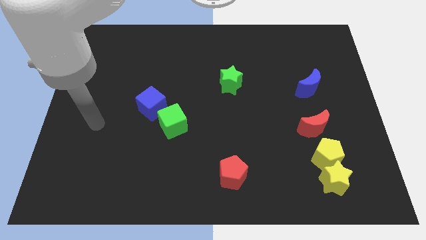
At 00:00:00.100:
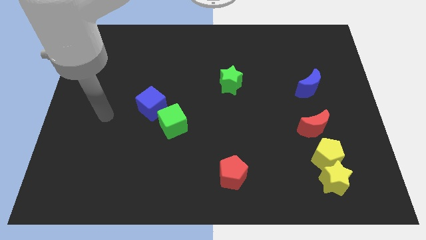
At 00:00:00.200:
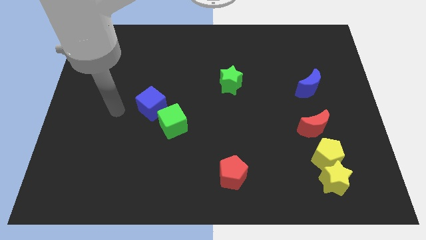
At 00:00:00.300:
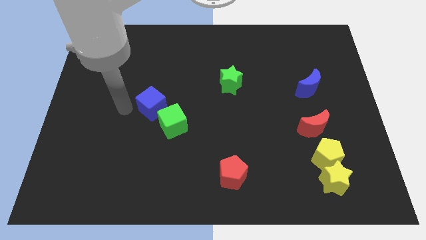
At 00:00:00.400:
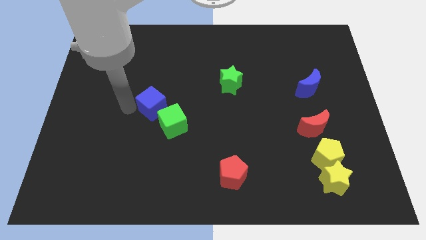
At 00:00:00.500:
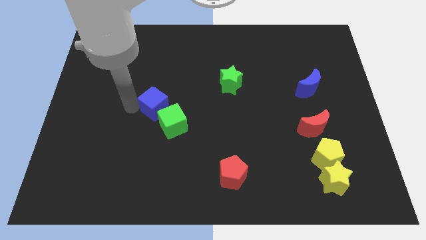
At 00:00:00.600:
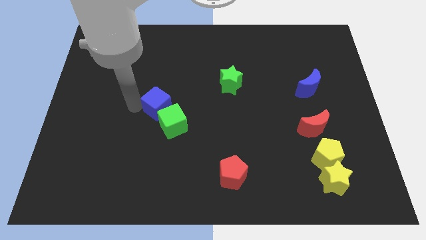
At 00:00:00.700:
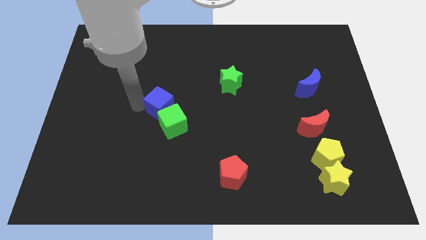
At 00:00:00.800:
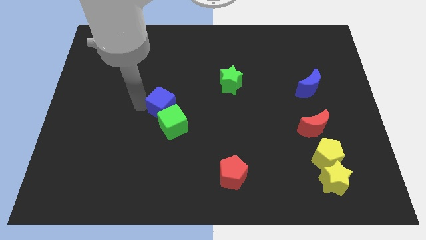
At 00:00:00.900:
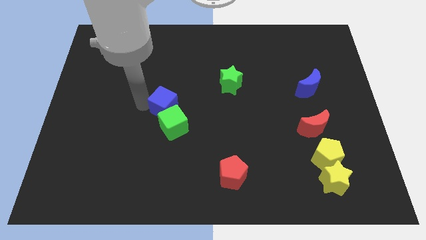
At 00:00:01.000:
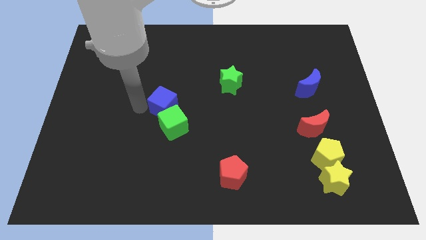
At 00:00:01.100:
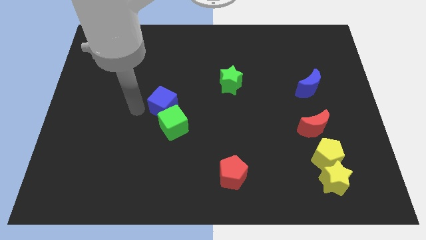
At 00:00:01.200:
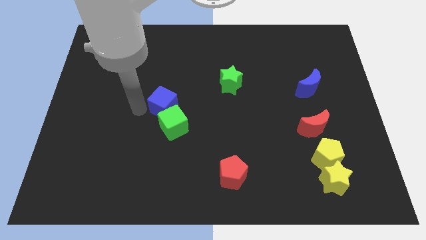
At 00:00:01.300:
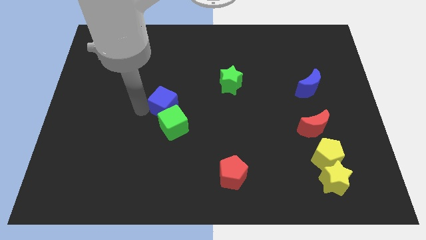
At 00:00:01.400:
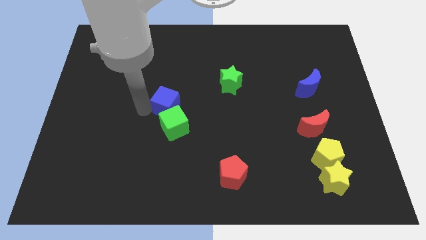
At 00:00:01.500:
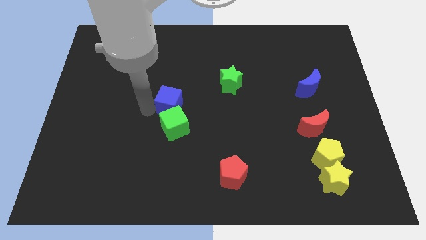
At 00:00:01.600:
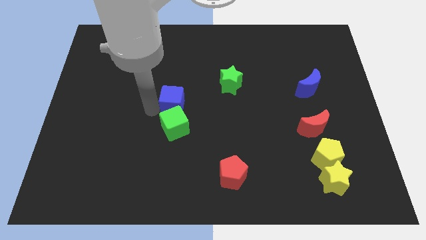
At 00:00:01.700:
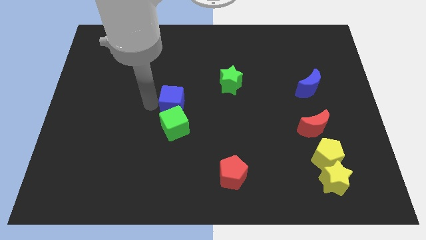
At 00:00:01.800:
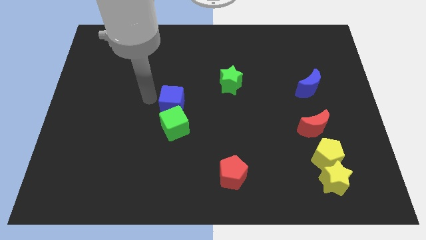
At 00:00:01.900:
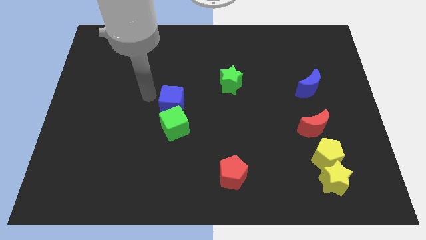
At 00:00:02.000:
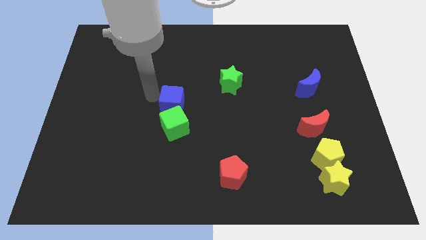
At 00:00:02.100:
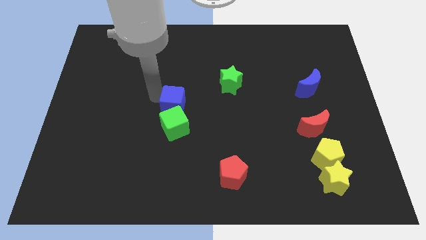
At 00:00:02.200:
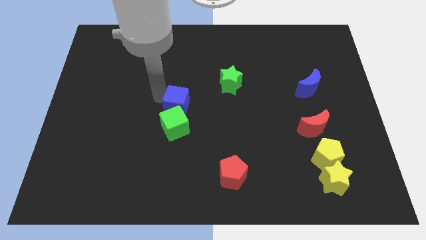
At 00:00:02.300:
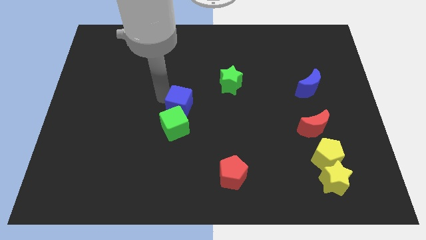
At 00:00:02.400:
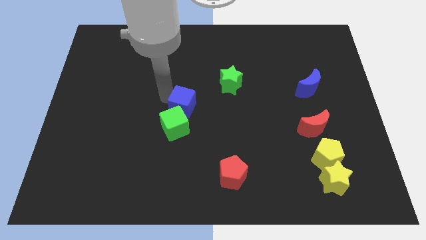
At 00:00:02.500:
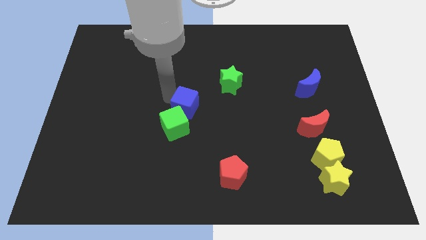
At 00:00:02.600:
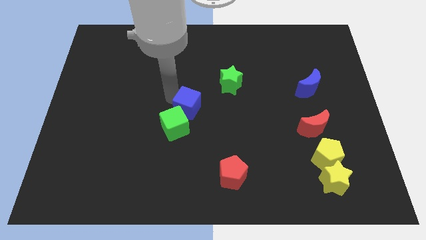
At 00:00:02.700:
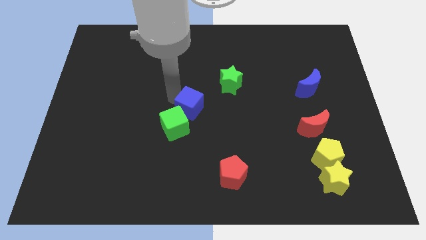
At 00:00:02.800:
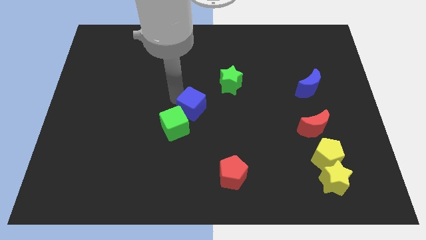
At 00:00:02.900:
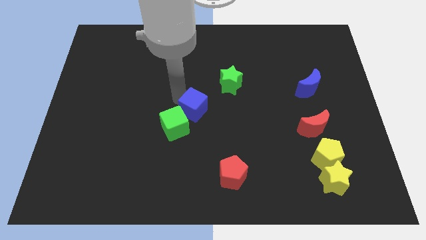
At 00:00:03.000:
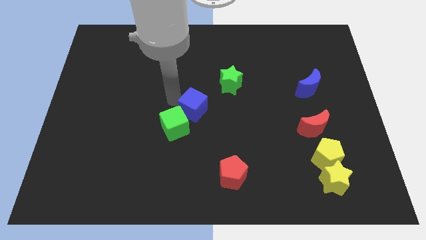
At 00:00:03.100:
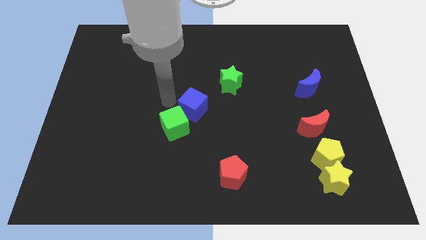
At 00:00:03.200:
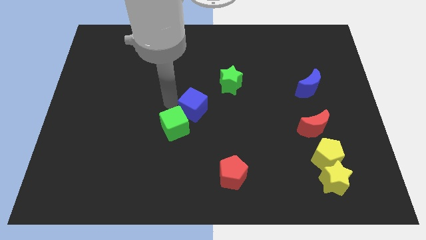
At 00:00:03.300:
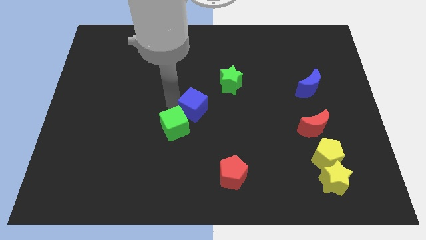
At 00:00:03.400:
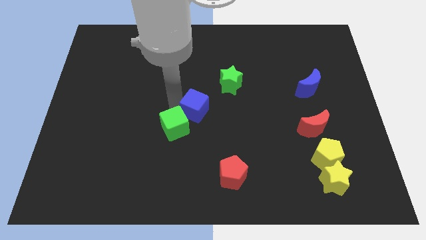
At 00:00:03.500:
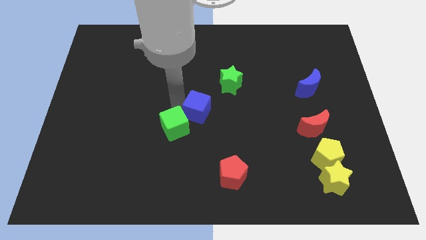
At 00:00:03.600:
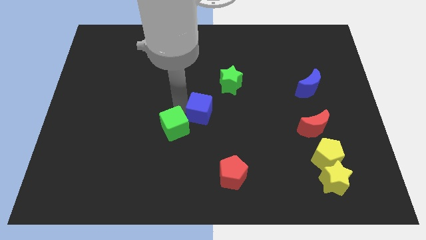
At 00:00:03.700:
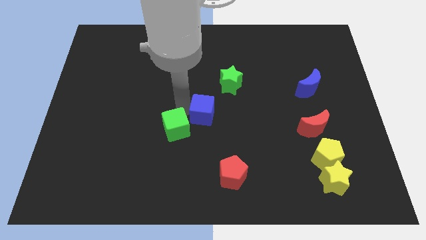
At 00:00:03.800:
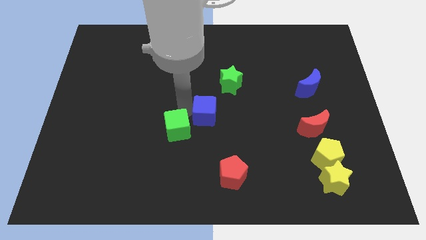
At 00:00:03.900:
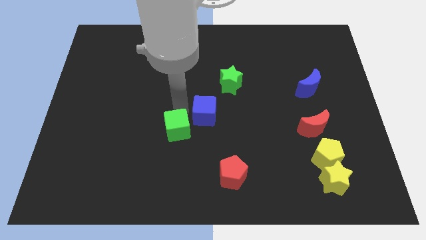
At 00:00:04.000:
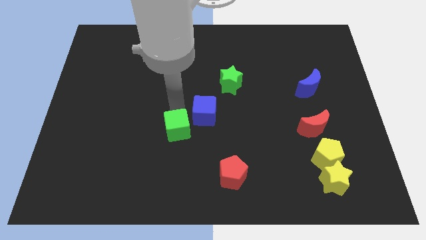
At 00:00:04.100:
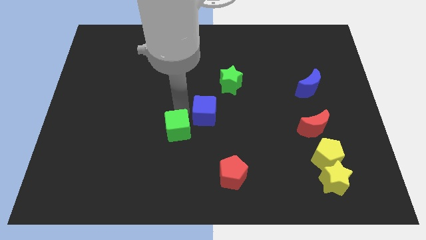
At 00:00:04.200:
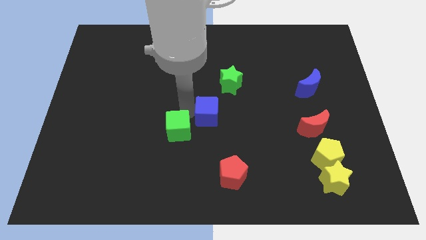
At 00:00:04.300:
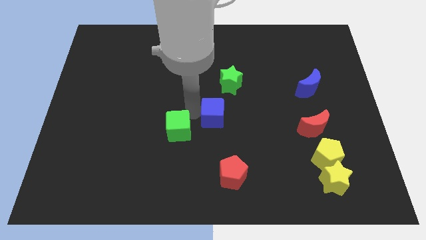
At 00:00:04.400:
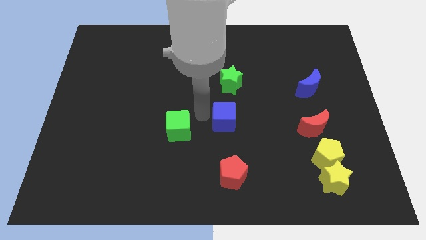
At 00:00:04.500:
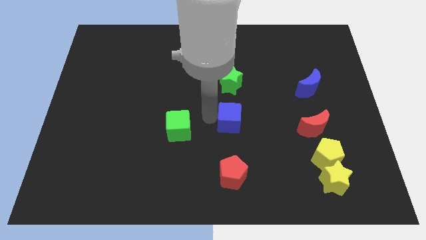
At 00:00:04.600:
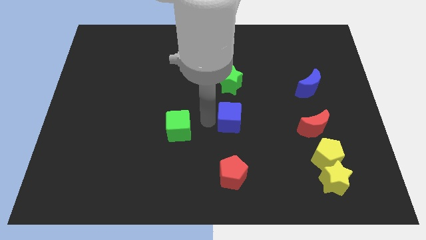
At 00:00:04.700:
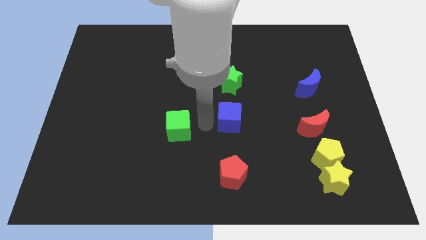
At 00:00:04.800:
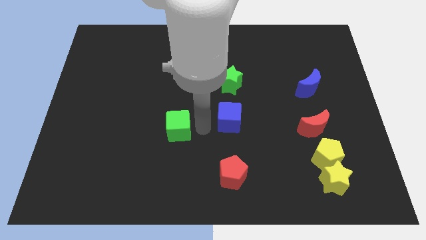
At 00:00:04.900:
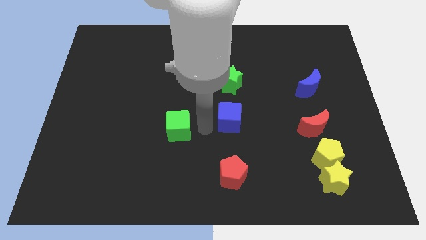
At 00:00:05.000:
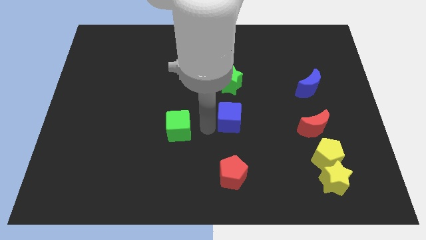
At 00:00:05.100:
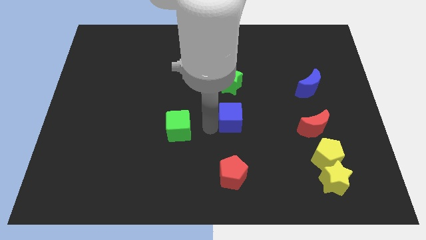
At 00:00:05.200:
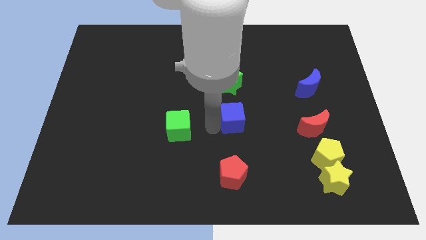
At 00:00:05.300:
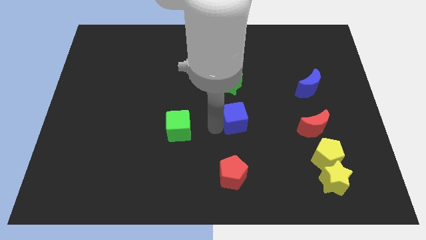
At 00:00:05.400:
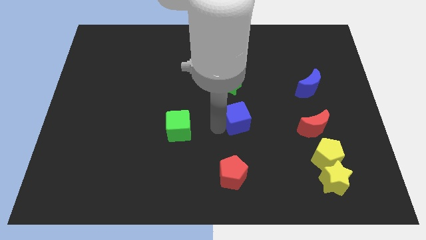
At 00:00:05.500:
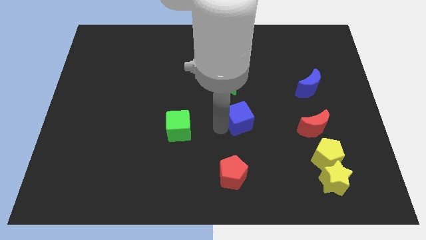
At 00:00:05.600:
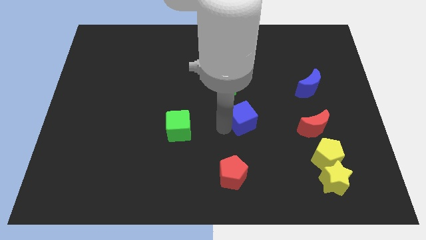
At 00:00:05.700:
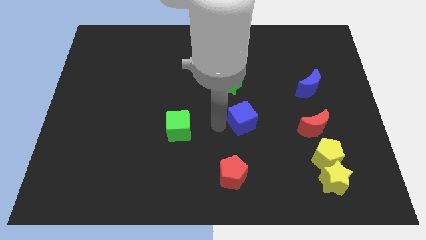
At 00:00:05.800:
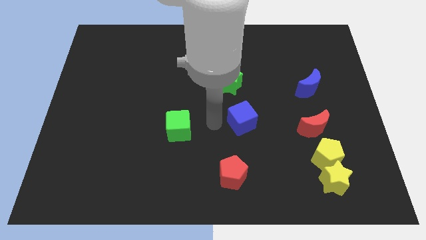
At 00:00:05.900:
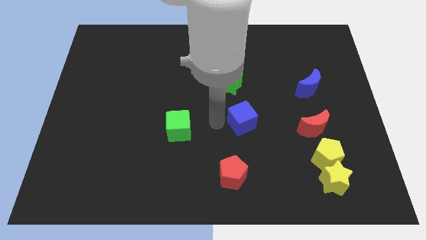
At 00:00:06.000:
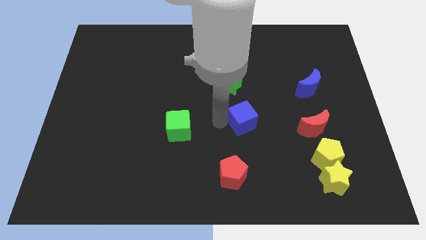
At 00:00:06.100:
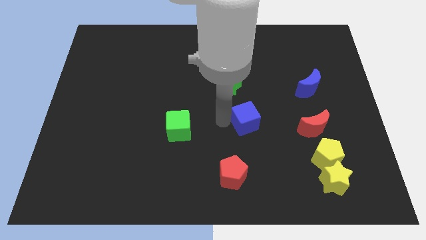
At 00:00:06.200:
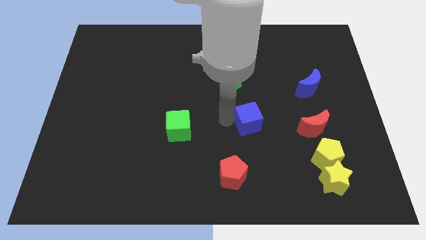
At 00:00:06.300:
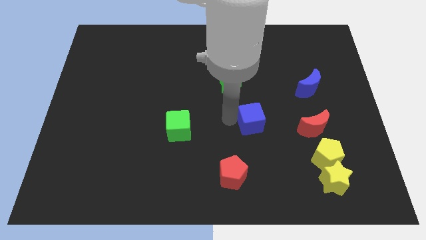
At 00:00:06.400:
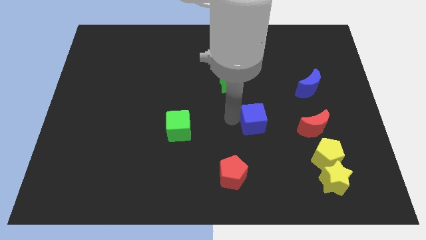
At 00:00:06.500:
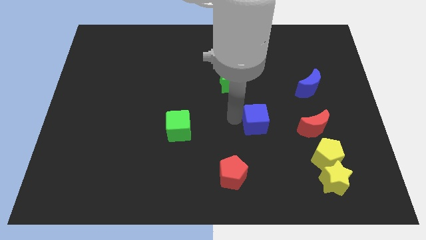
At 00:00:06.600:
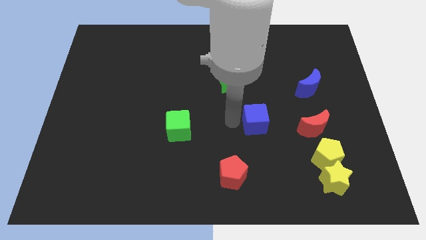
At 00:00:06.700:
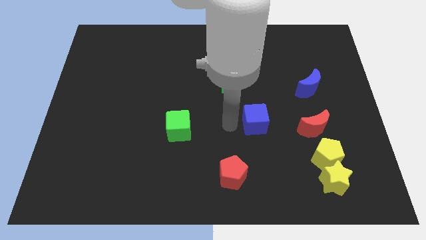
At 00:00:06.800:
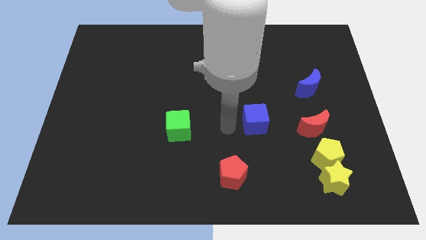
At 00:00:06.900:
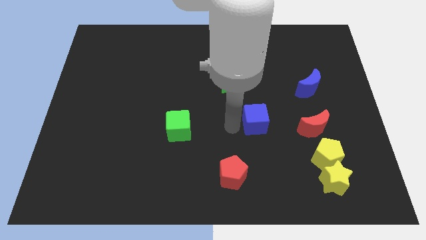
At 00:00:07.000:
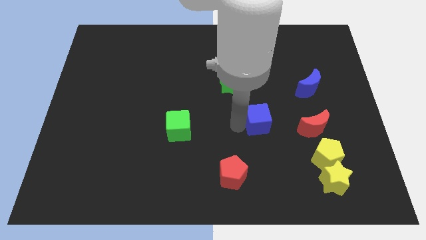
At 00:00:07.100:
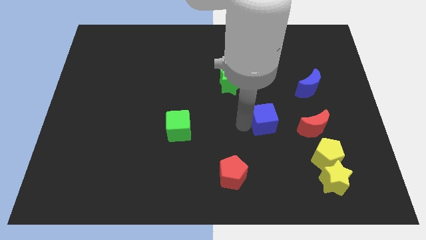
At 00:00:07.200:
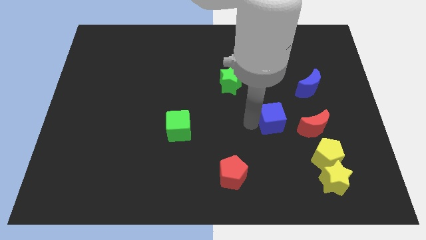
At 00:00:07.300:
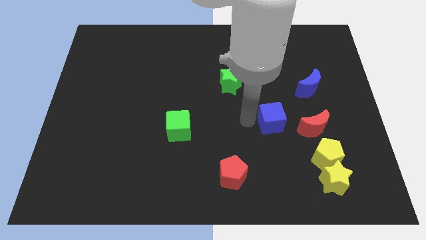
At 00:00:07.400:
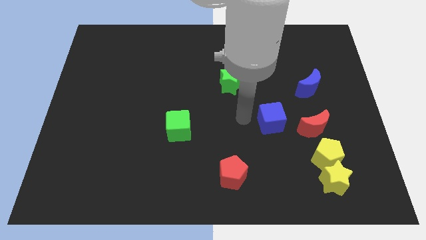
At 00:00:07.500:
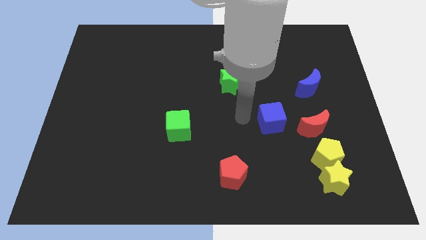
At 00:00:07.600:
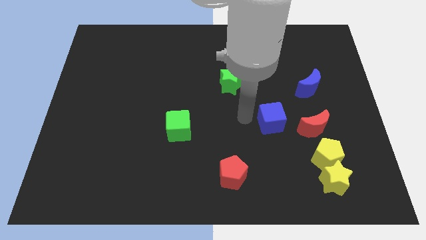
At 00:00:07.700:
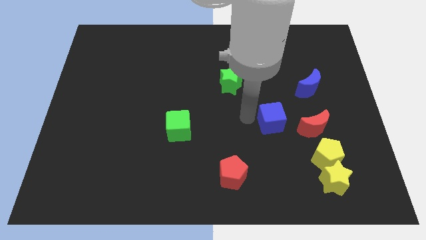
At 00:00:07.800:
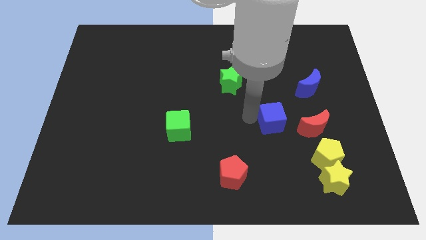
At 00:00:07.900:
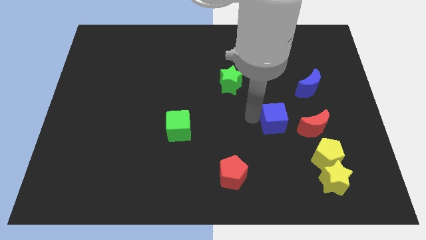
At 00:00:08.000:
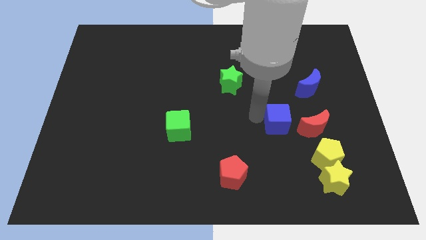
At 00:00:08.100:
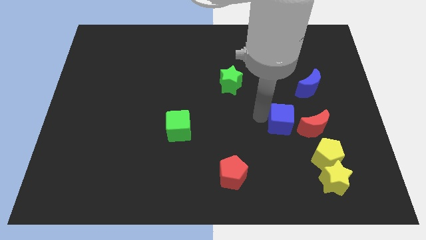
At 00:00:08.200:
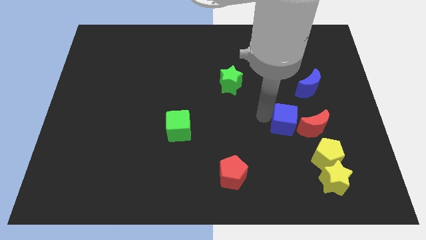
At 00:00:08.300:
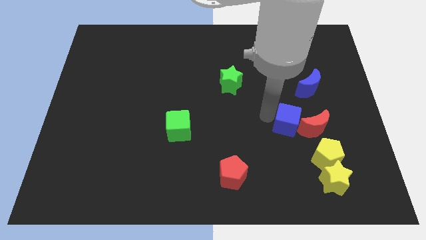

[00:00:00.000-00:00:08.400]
slide the blue cube close to the red moon
